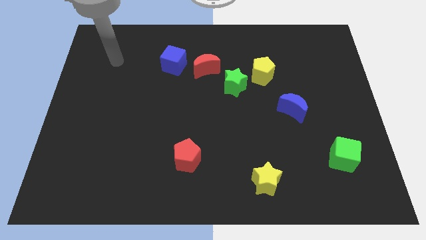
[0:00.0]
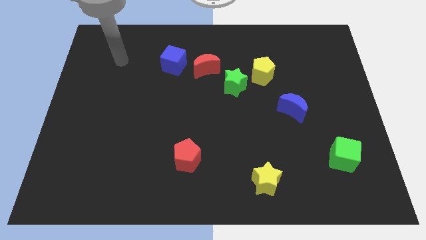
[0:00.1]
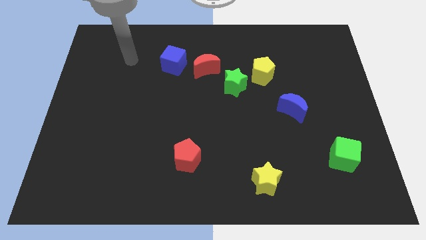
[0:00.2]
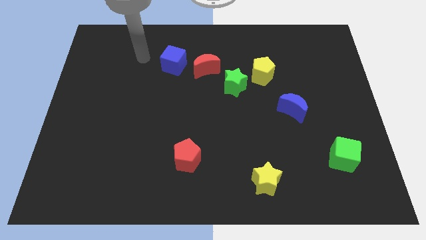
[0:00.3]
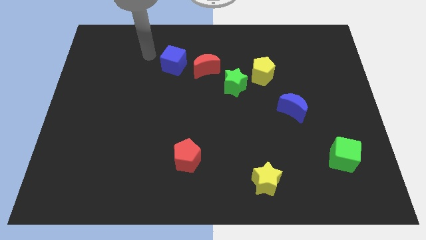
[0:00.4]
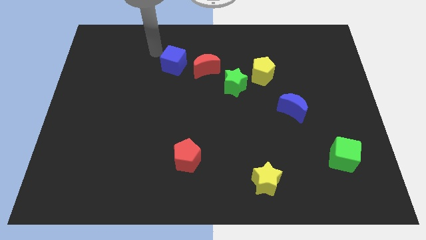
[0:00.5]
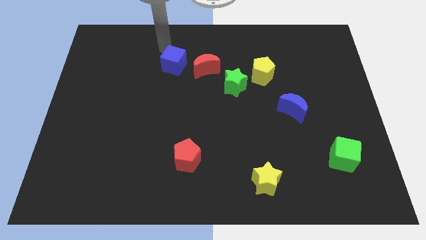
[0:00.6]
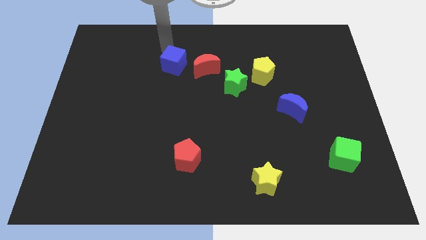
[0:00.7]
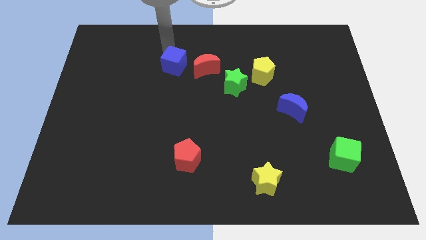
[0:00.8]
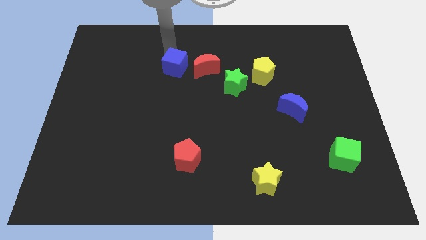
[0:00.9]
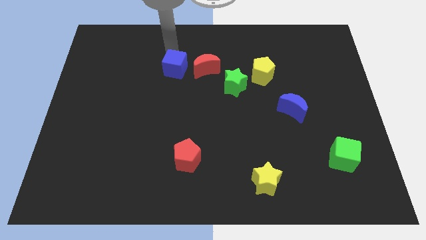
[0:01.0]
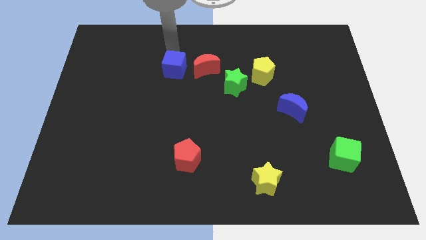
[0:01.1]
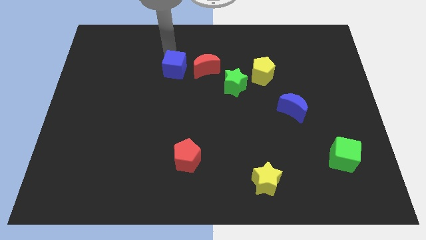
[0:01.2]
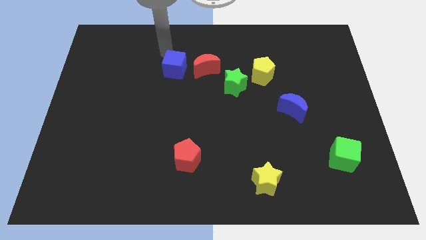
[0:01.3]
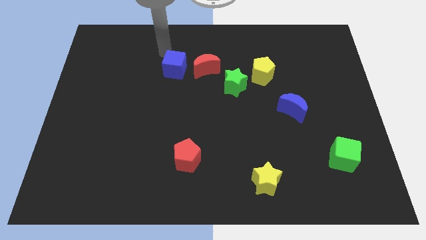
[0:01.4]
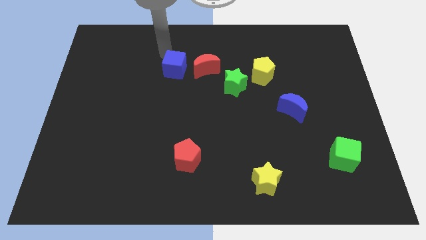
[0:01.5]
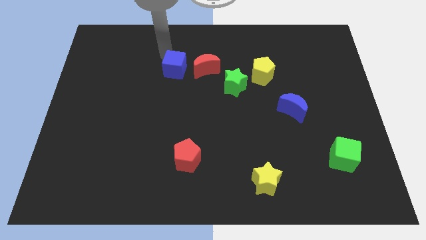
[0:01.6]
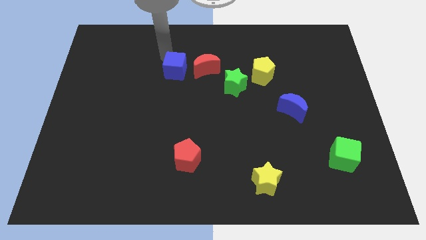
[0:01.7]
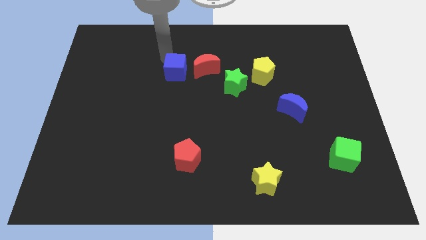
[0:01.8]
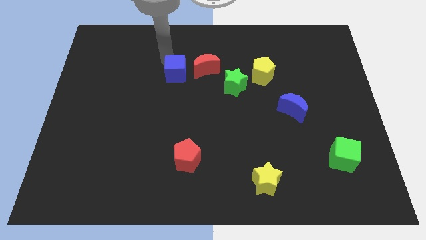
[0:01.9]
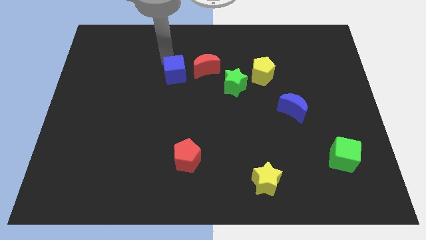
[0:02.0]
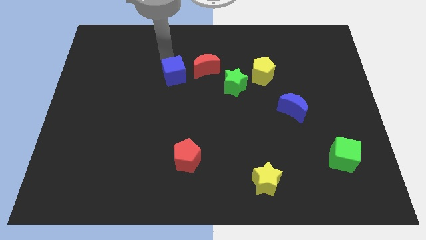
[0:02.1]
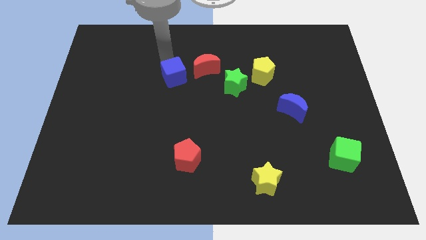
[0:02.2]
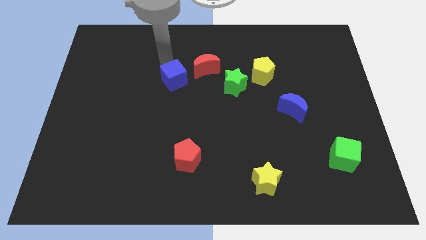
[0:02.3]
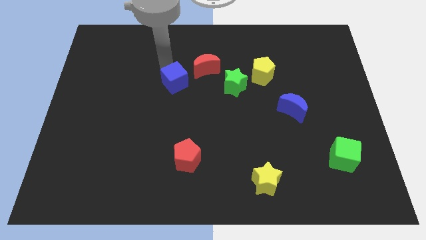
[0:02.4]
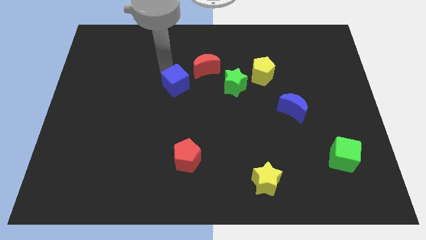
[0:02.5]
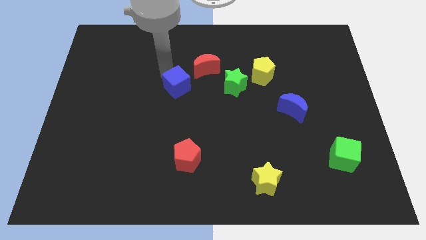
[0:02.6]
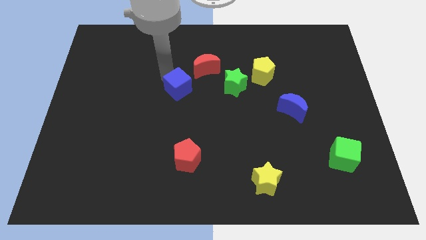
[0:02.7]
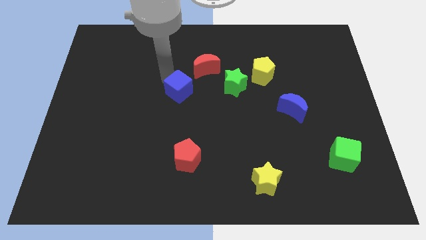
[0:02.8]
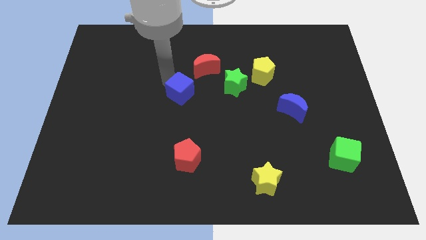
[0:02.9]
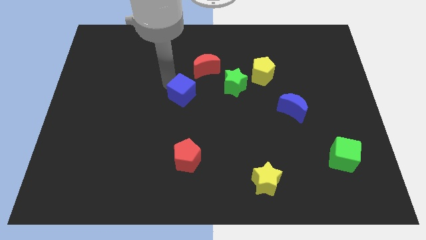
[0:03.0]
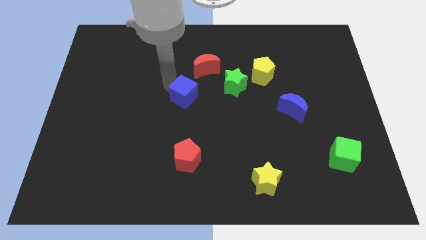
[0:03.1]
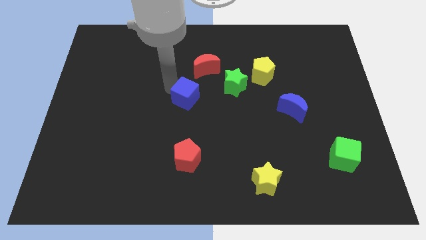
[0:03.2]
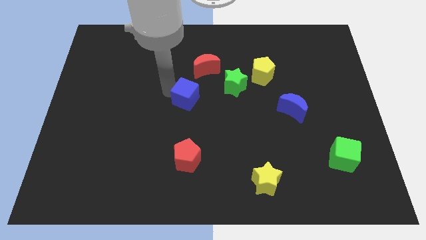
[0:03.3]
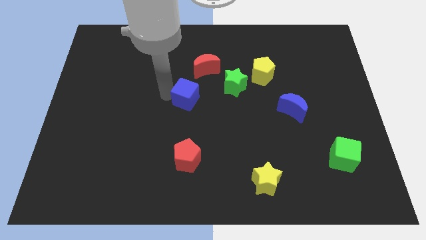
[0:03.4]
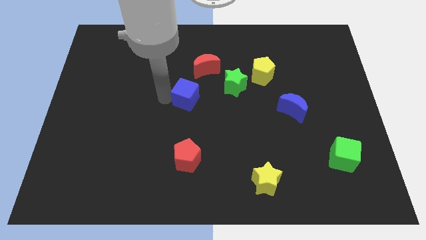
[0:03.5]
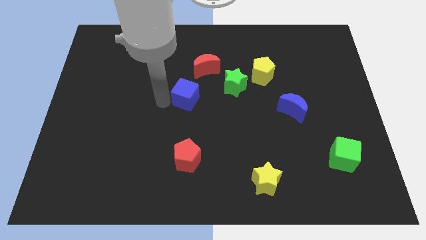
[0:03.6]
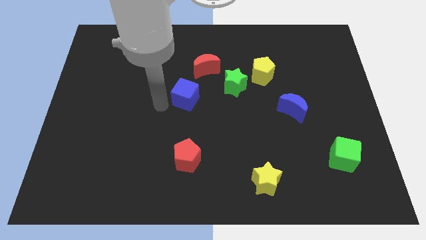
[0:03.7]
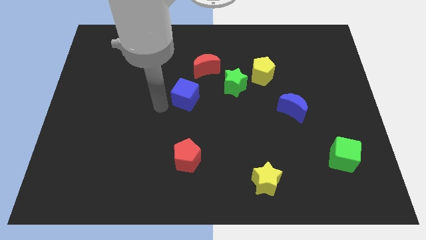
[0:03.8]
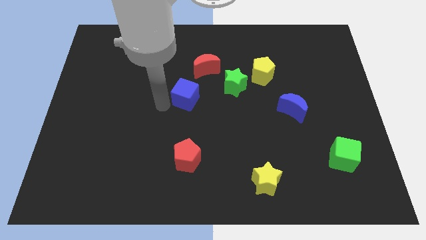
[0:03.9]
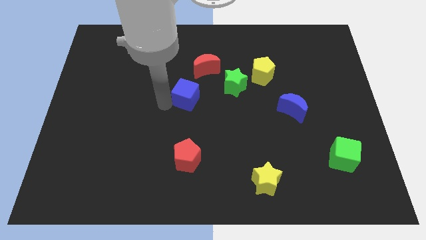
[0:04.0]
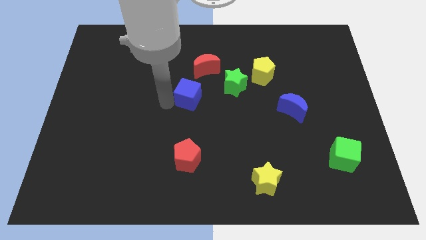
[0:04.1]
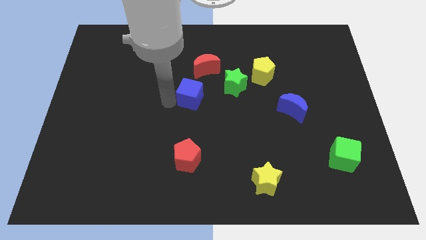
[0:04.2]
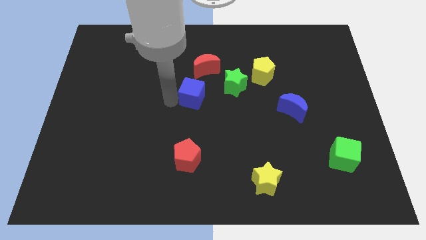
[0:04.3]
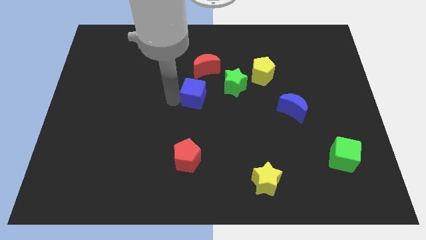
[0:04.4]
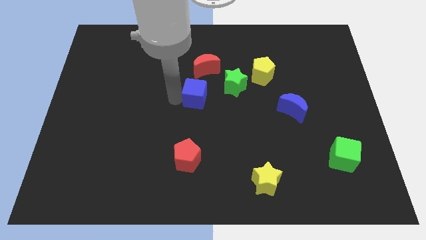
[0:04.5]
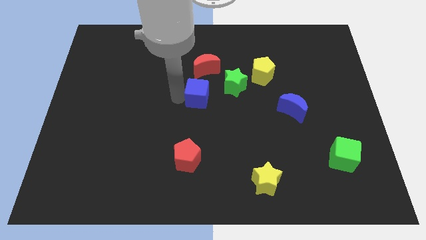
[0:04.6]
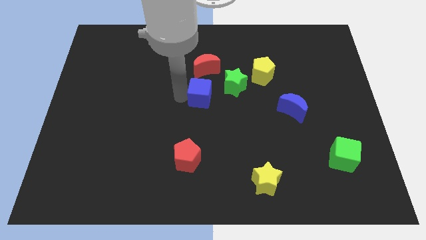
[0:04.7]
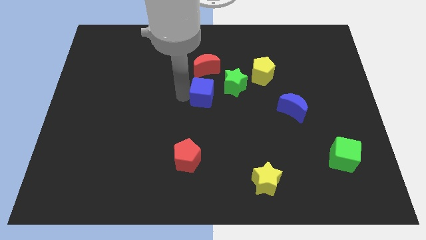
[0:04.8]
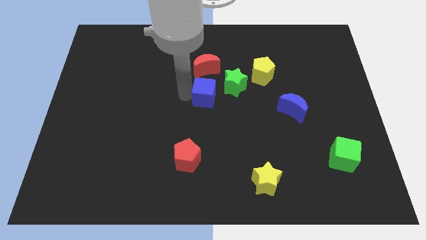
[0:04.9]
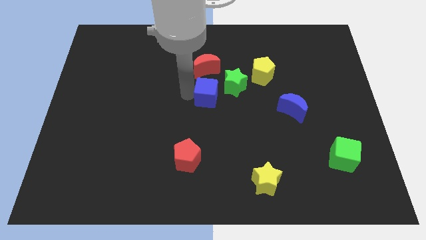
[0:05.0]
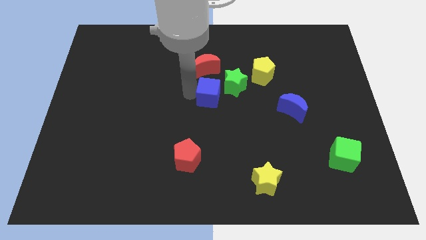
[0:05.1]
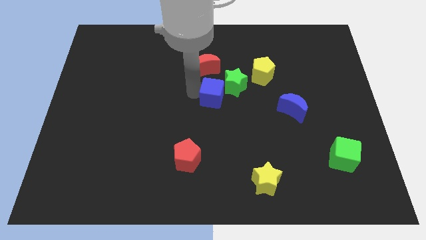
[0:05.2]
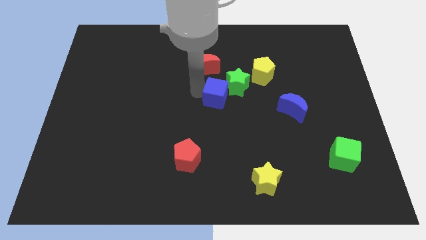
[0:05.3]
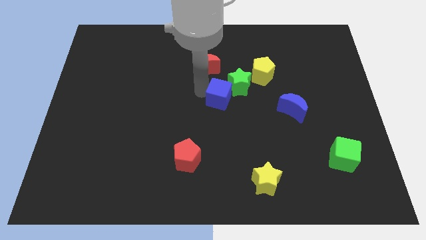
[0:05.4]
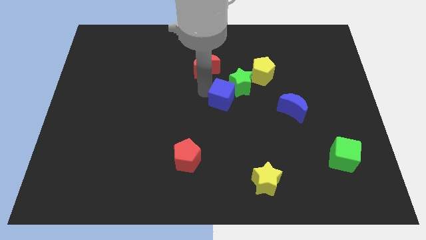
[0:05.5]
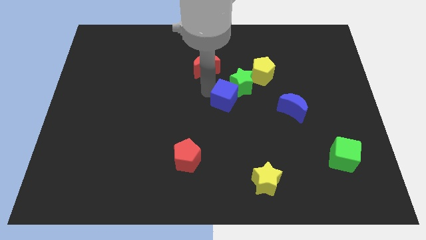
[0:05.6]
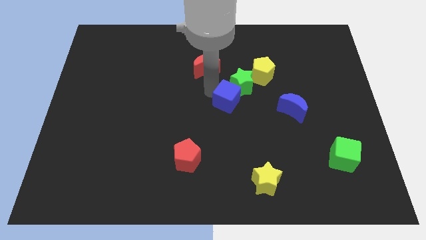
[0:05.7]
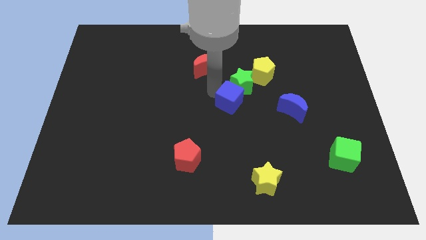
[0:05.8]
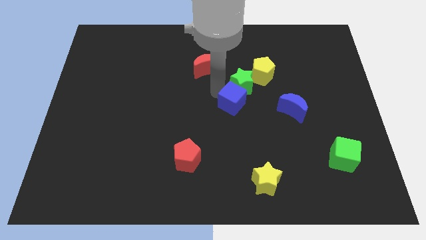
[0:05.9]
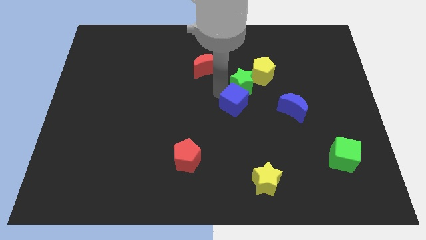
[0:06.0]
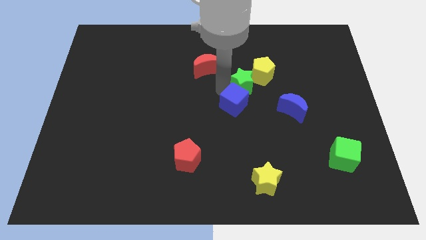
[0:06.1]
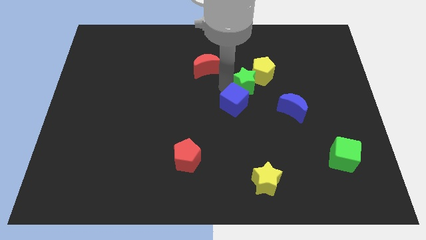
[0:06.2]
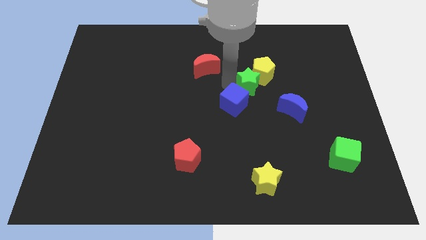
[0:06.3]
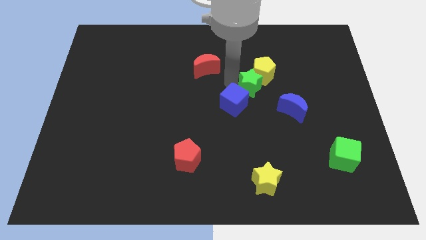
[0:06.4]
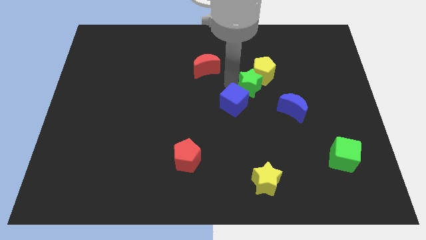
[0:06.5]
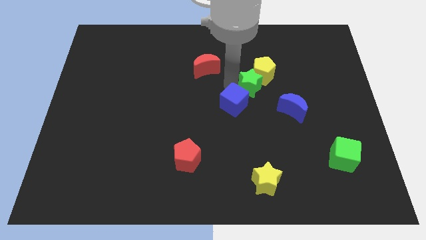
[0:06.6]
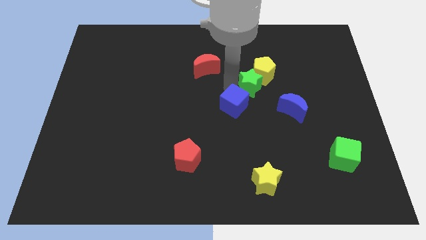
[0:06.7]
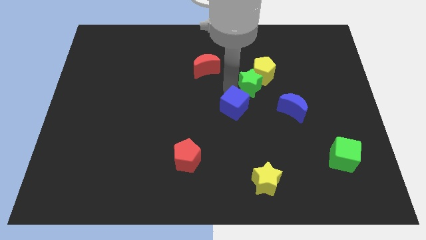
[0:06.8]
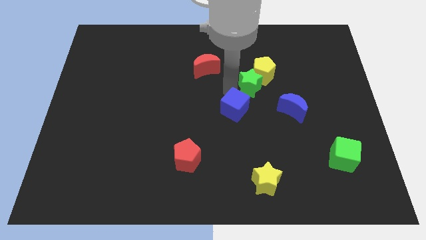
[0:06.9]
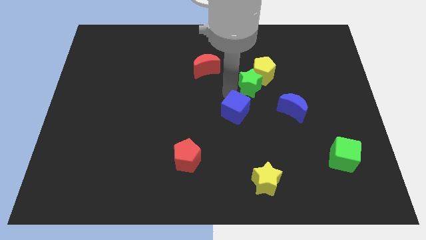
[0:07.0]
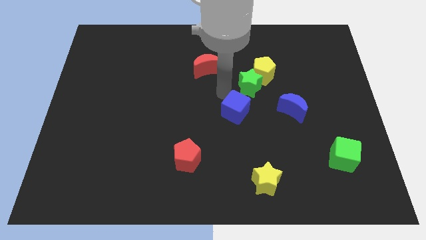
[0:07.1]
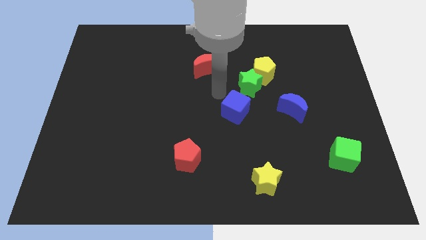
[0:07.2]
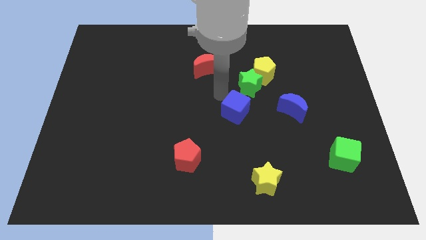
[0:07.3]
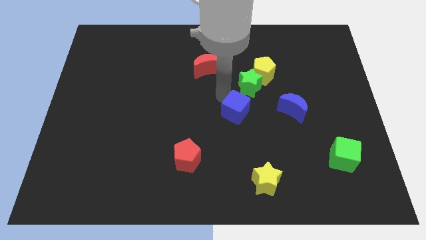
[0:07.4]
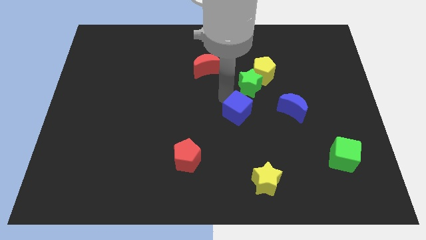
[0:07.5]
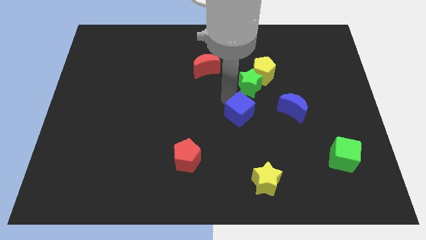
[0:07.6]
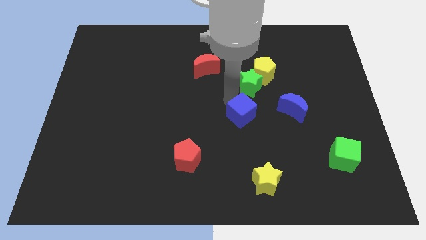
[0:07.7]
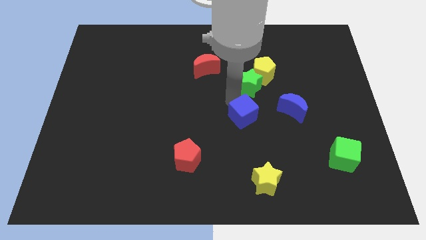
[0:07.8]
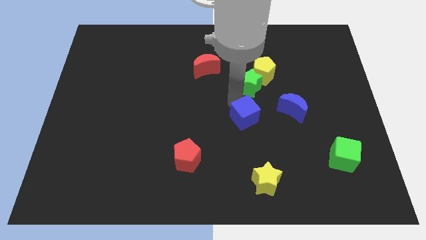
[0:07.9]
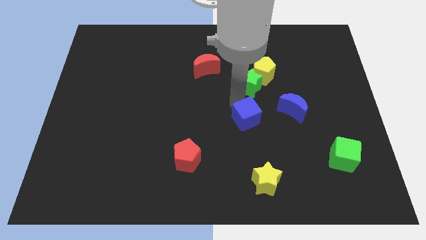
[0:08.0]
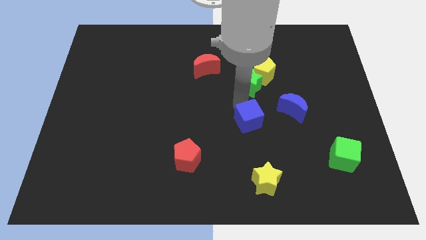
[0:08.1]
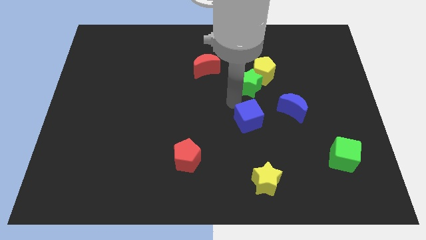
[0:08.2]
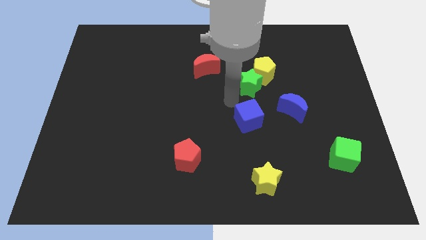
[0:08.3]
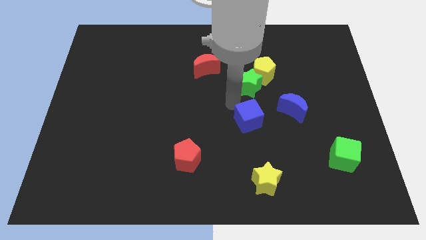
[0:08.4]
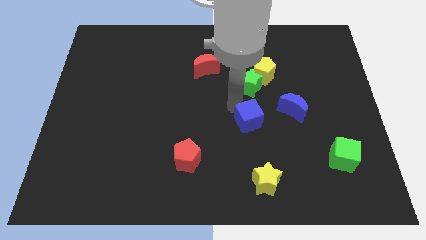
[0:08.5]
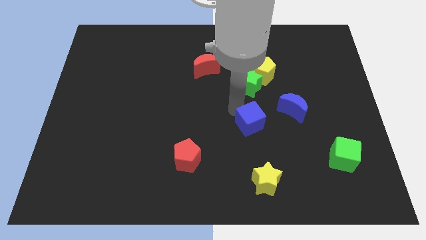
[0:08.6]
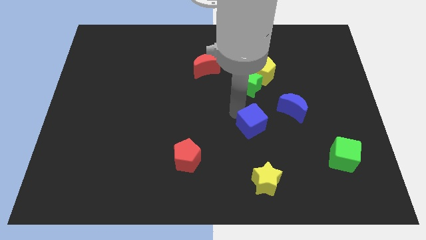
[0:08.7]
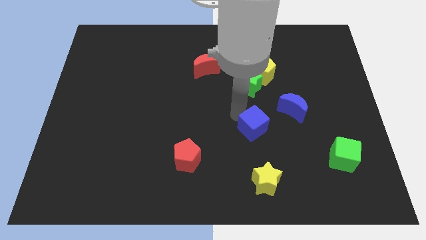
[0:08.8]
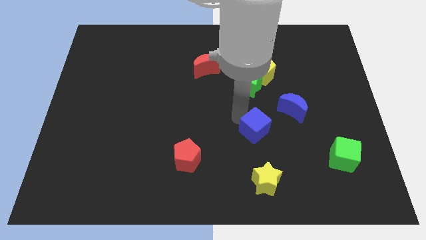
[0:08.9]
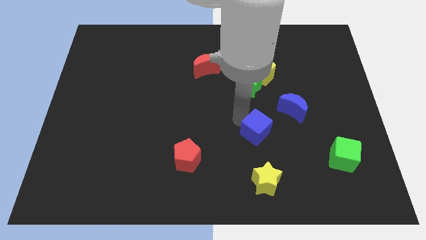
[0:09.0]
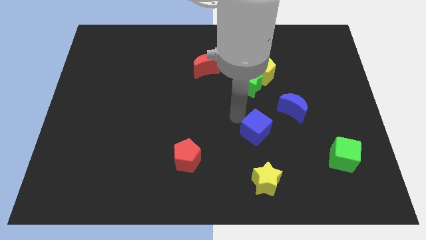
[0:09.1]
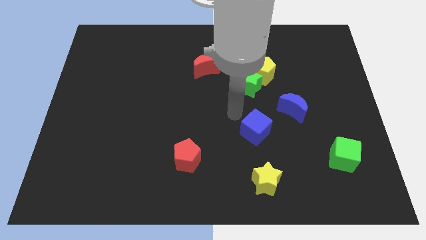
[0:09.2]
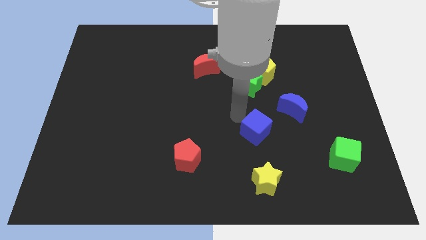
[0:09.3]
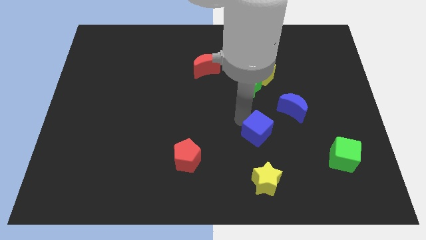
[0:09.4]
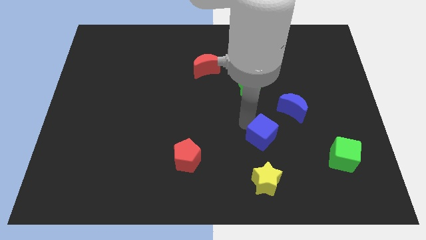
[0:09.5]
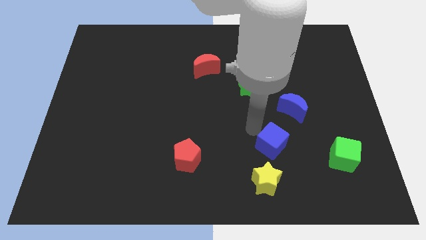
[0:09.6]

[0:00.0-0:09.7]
move the blue cube just left of the green cube
